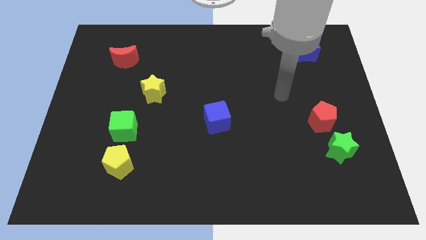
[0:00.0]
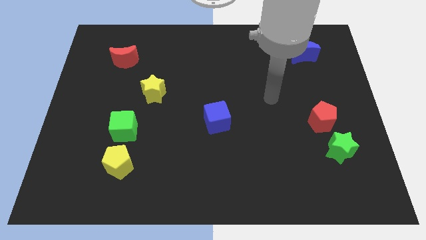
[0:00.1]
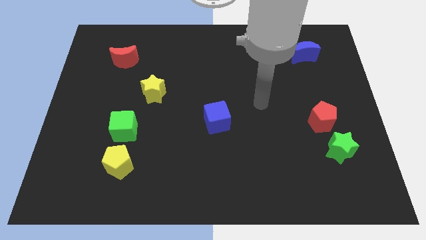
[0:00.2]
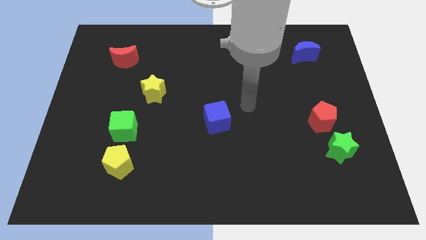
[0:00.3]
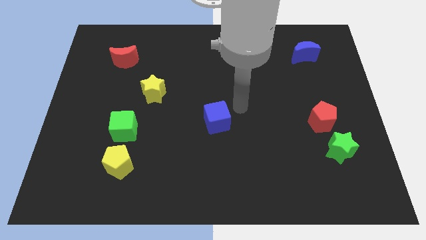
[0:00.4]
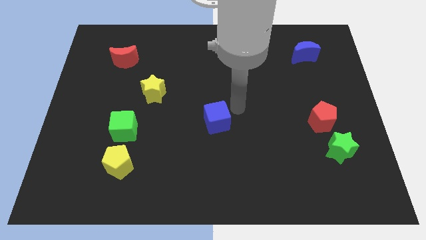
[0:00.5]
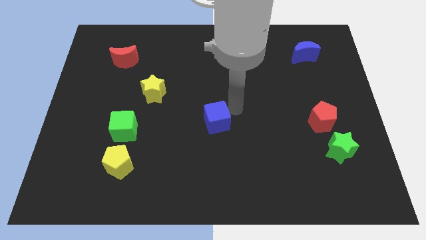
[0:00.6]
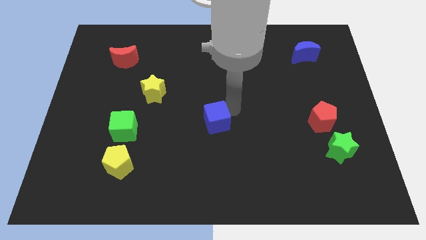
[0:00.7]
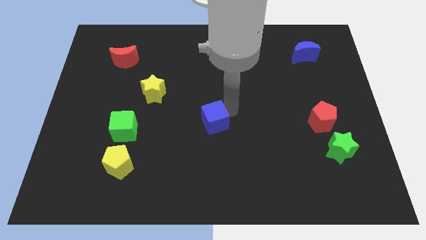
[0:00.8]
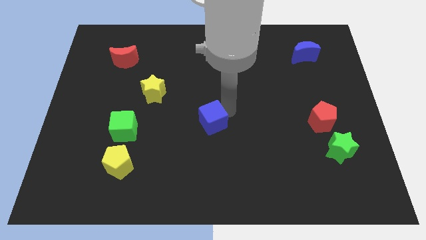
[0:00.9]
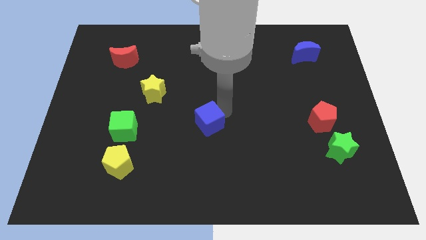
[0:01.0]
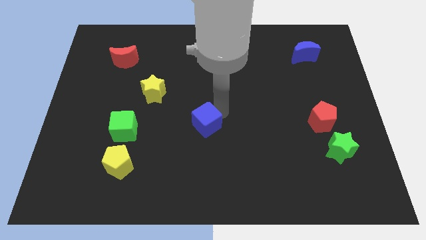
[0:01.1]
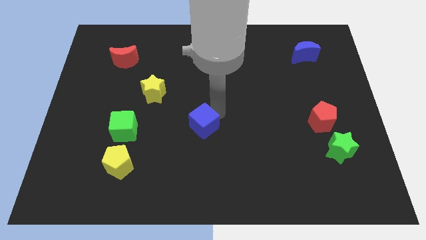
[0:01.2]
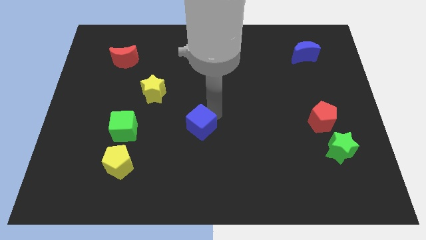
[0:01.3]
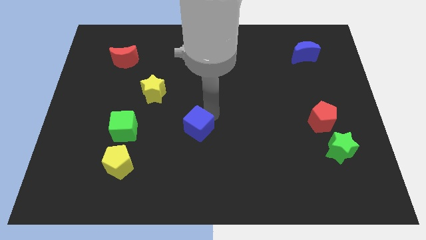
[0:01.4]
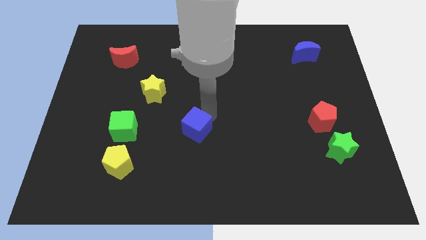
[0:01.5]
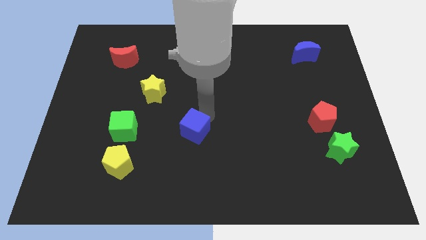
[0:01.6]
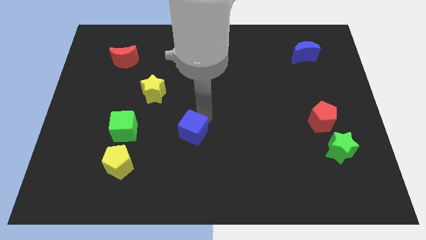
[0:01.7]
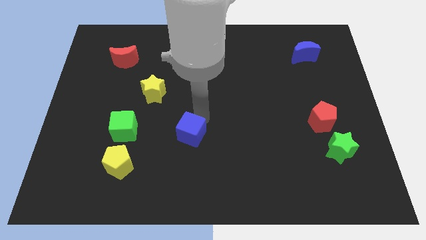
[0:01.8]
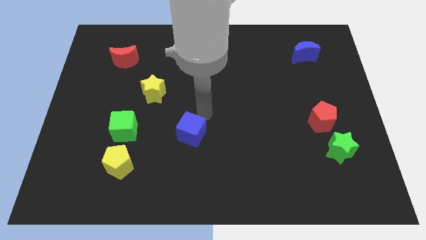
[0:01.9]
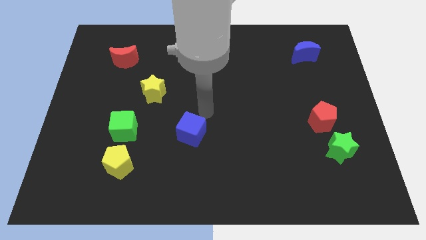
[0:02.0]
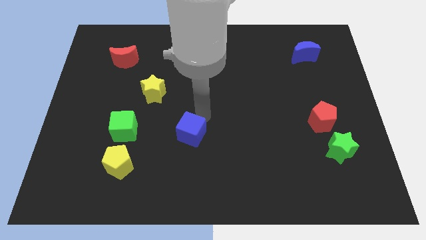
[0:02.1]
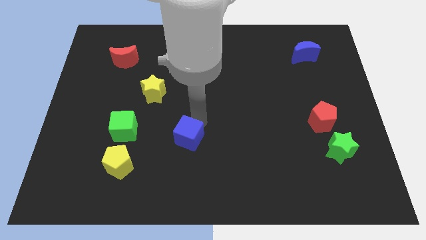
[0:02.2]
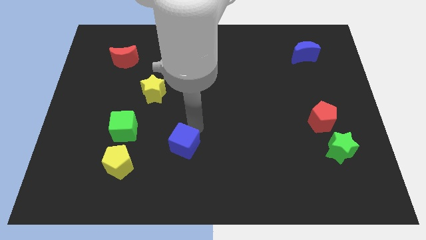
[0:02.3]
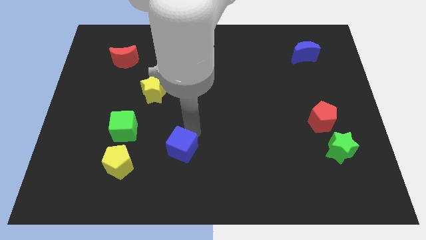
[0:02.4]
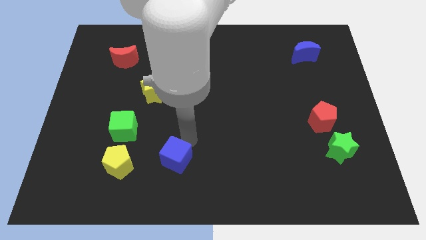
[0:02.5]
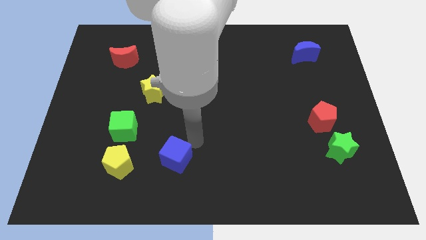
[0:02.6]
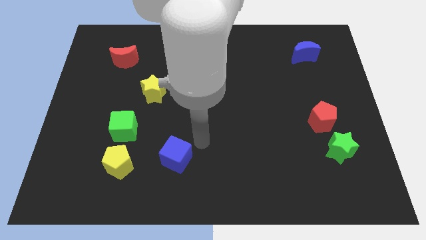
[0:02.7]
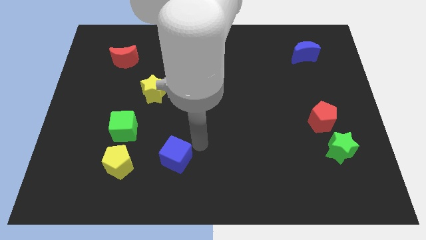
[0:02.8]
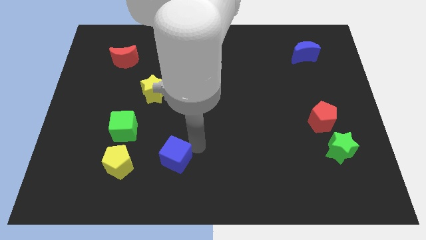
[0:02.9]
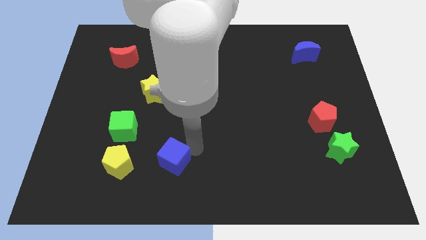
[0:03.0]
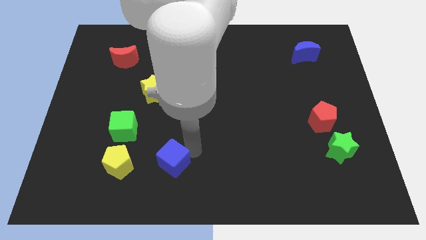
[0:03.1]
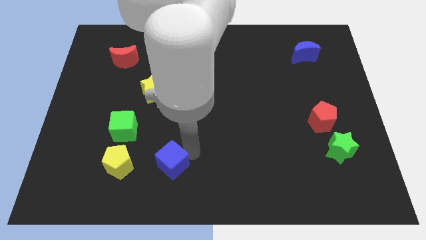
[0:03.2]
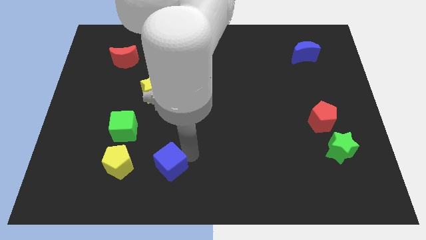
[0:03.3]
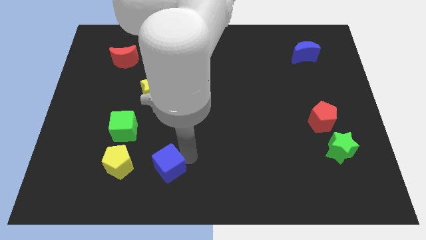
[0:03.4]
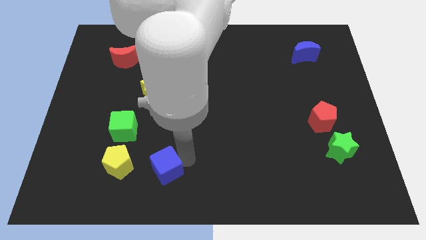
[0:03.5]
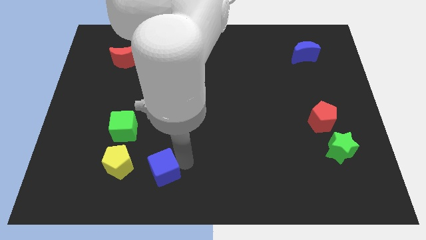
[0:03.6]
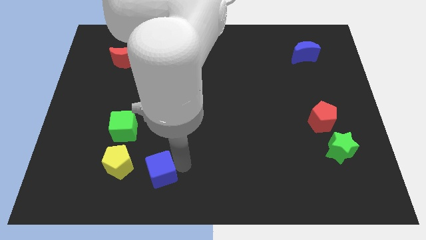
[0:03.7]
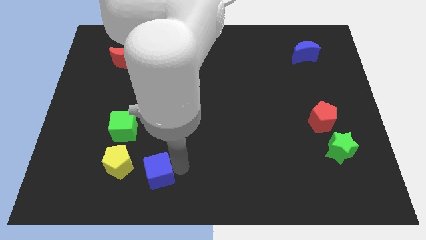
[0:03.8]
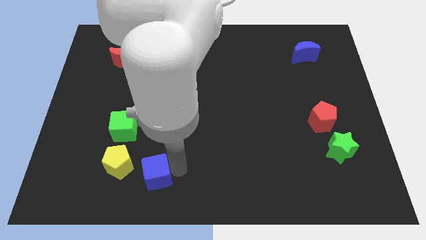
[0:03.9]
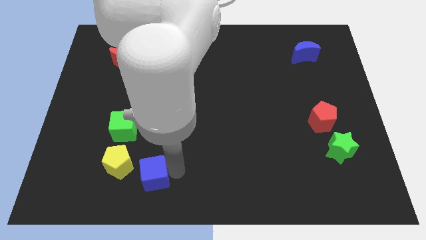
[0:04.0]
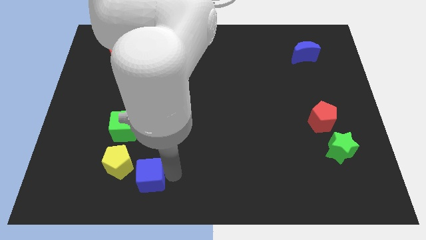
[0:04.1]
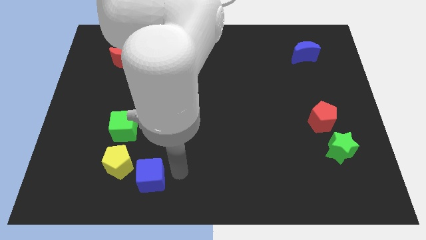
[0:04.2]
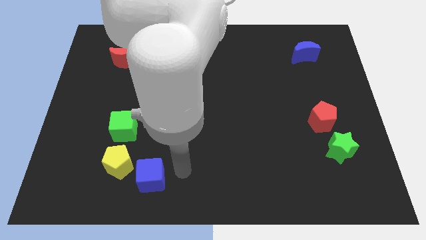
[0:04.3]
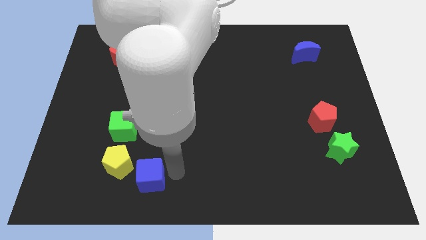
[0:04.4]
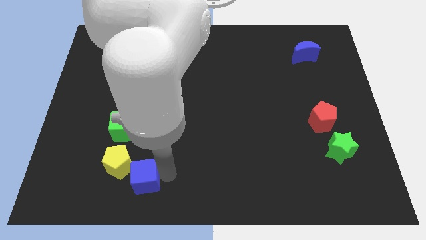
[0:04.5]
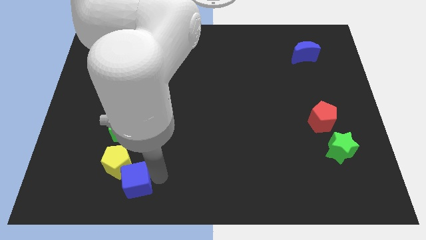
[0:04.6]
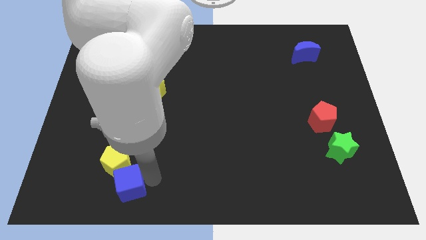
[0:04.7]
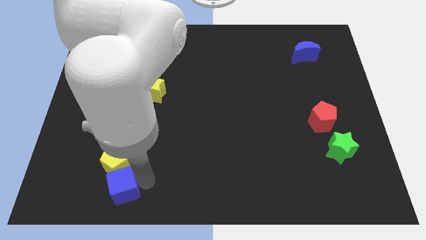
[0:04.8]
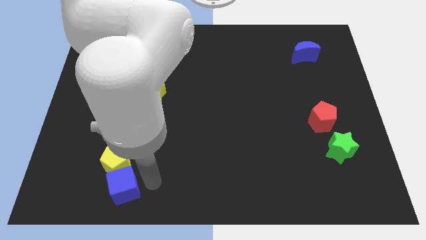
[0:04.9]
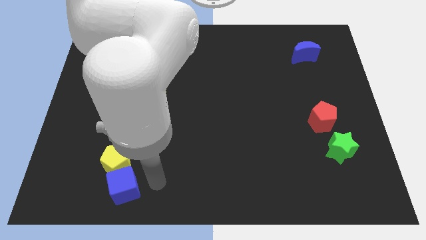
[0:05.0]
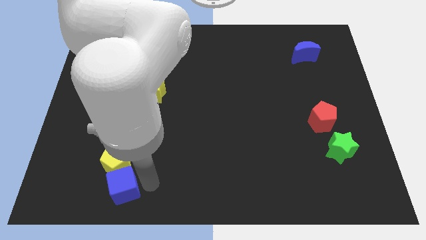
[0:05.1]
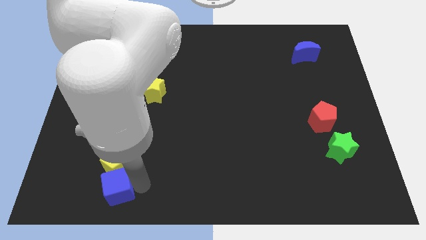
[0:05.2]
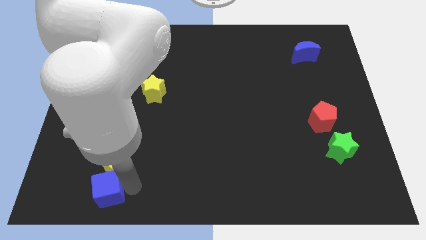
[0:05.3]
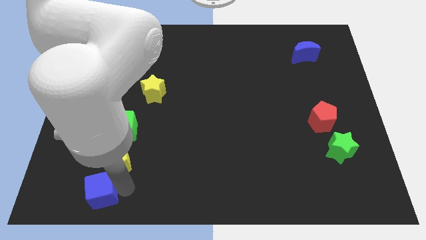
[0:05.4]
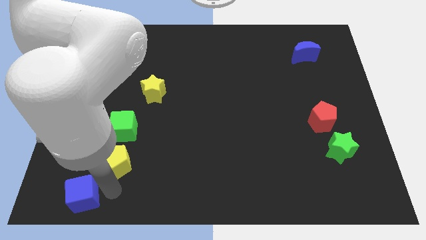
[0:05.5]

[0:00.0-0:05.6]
slide the blue cube to the bottom left of the board
